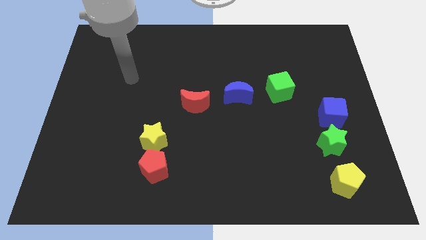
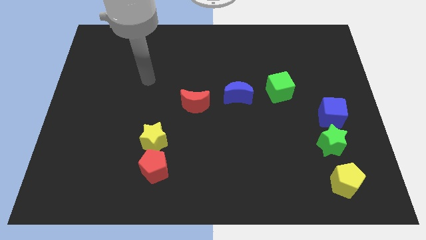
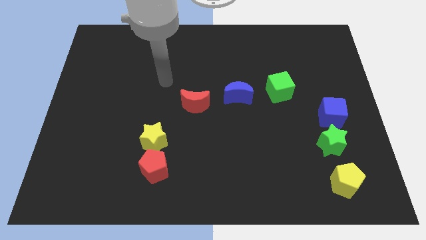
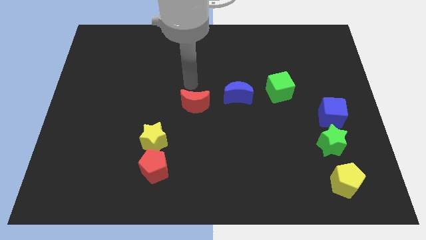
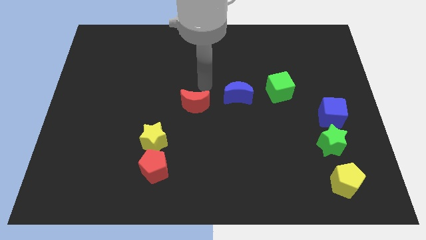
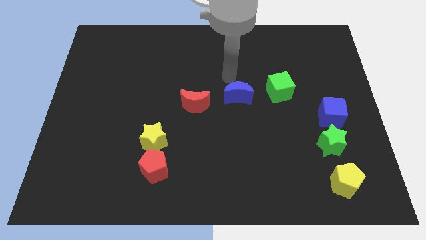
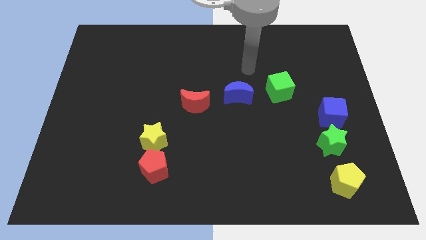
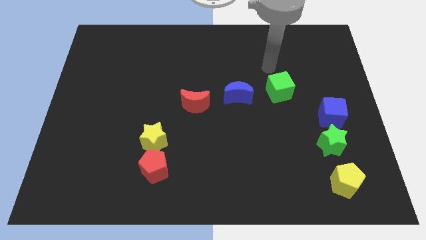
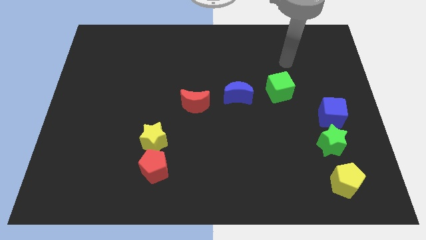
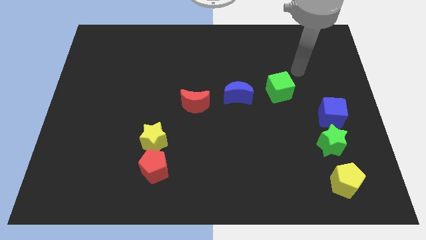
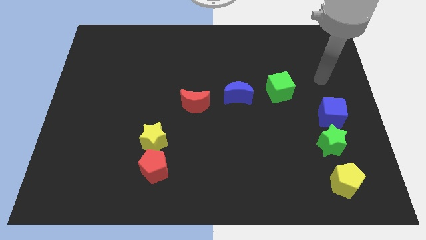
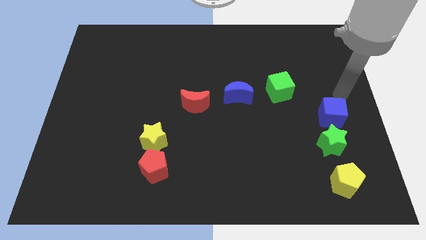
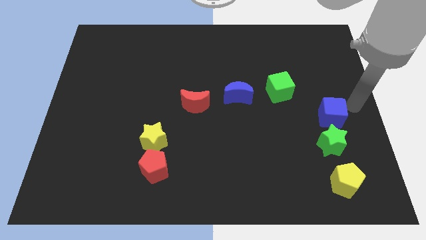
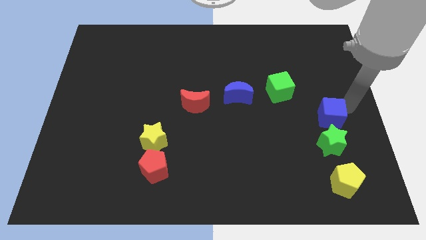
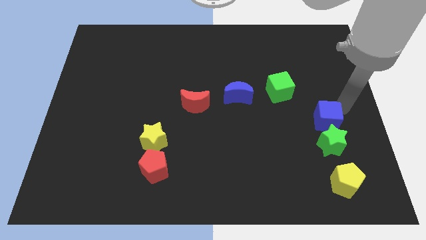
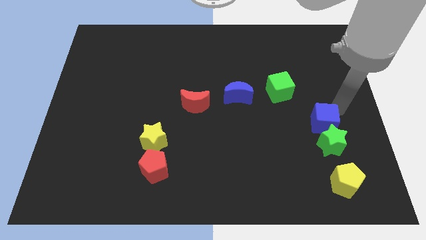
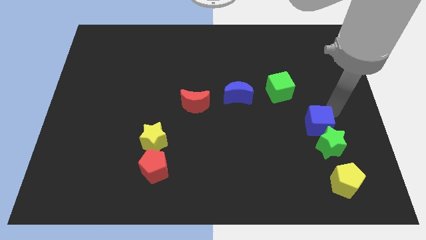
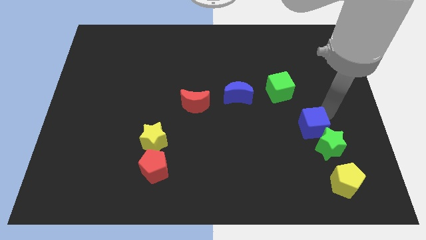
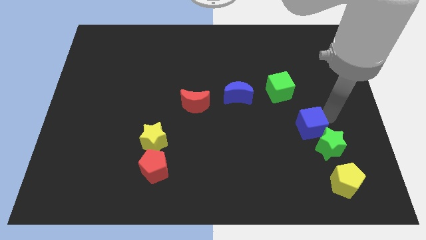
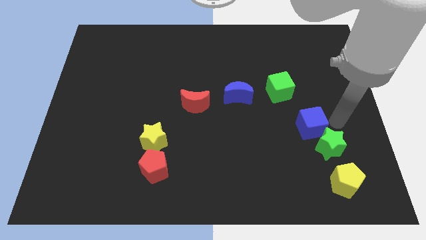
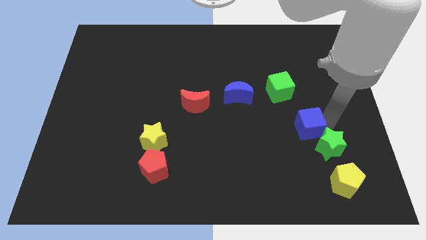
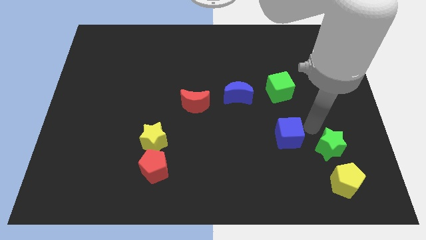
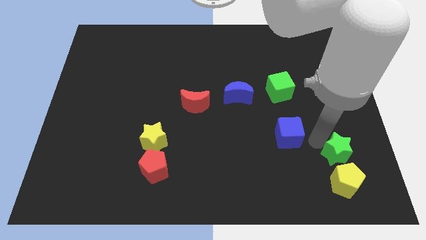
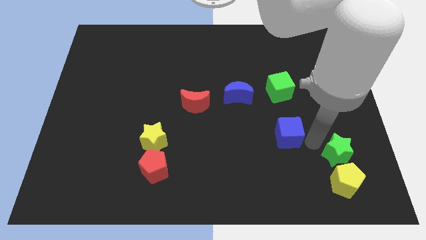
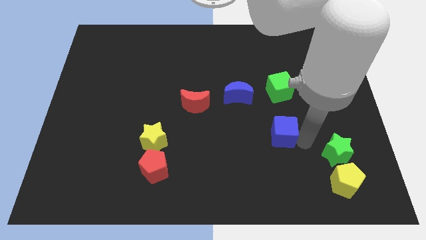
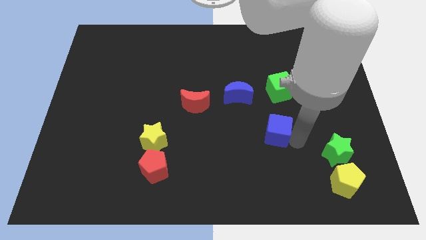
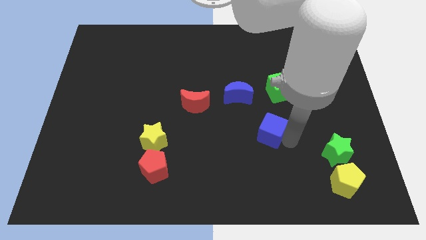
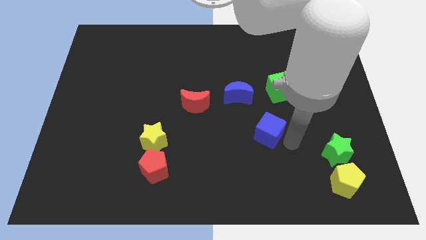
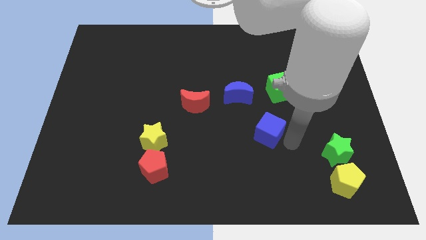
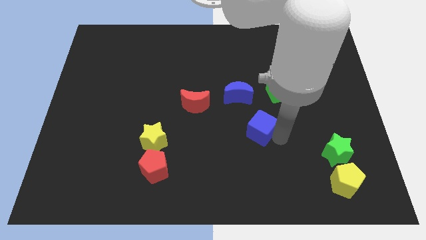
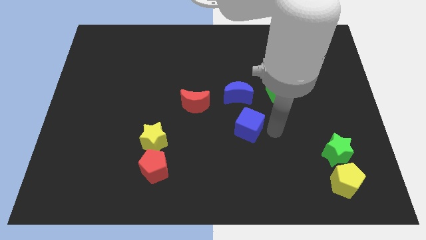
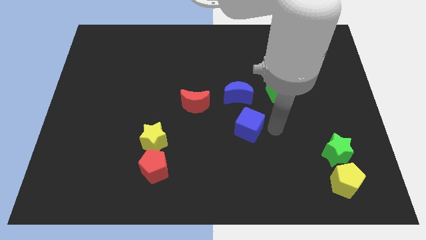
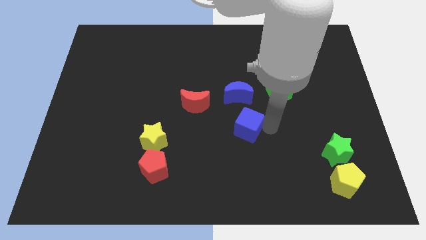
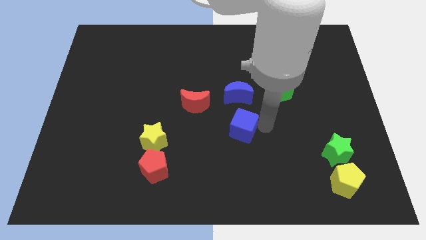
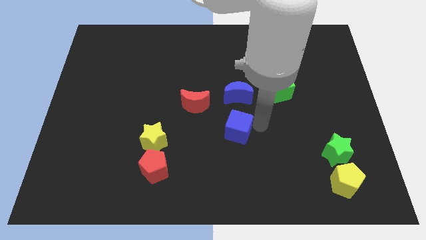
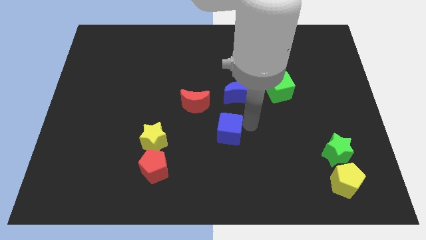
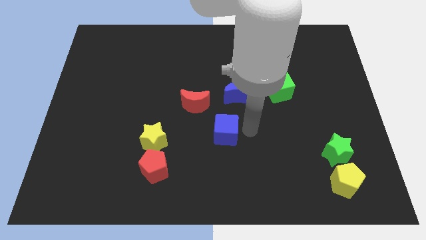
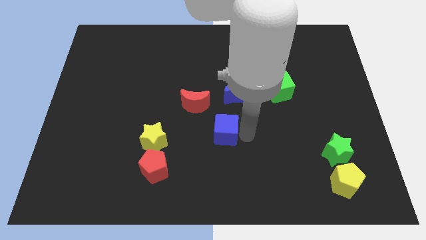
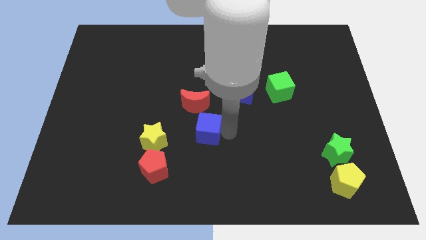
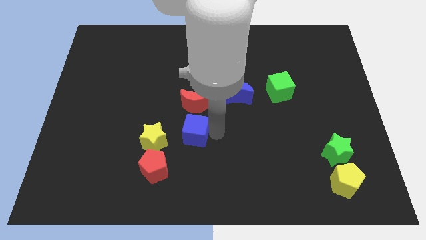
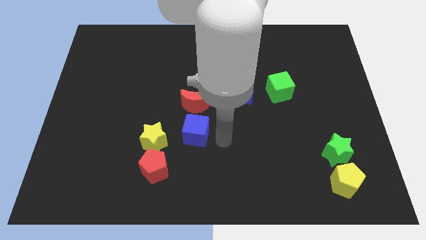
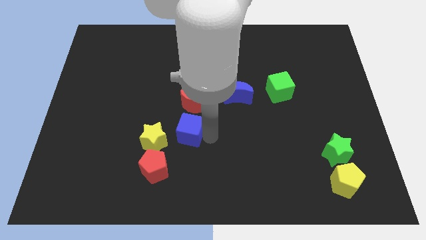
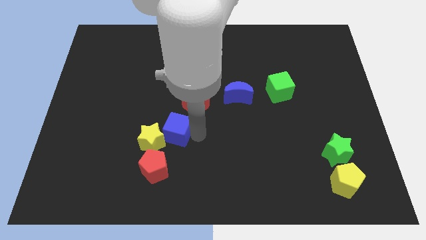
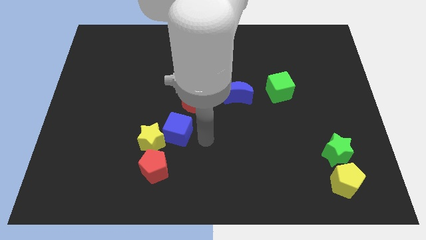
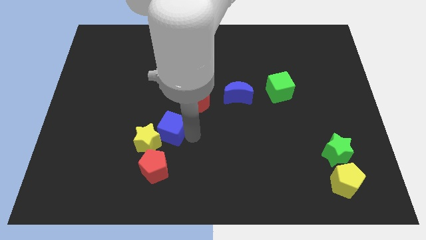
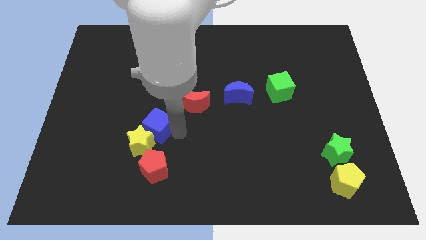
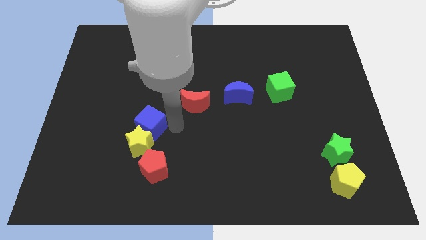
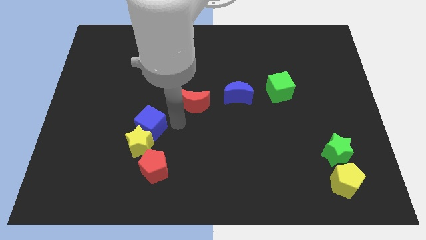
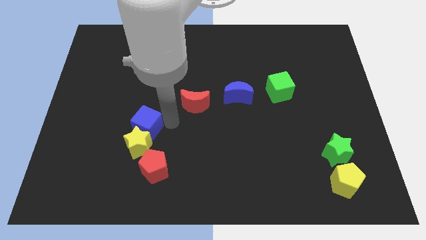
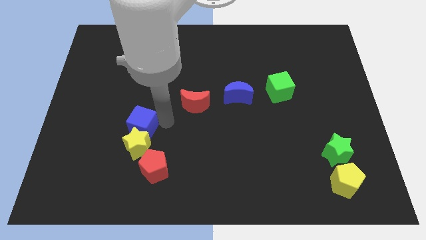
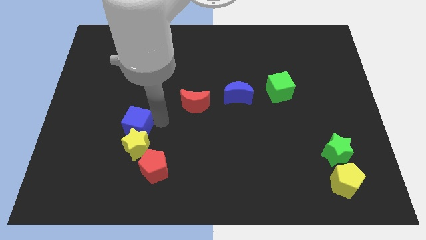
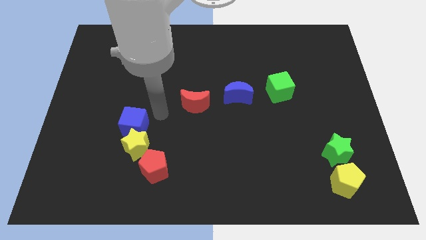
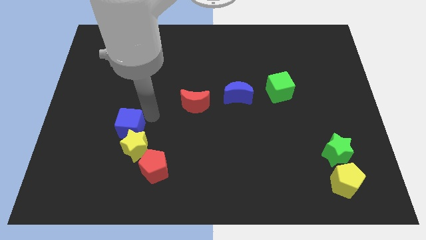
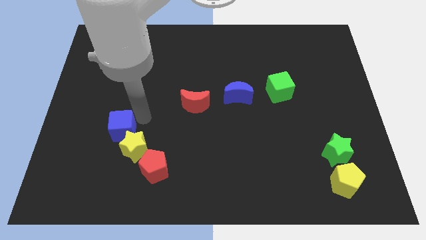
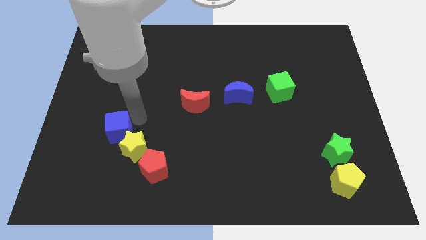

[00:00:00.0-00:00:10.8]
move the blue cube to the left side of the yellow star

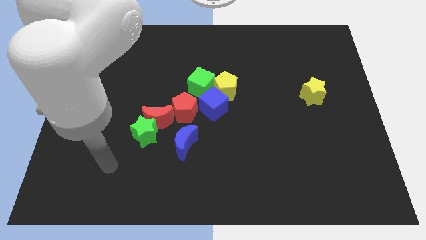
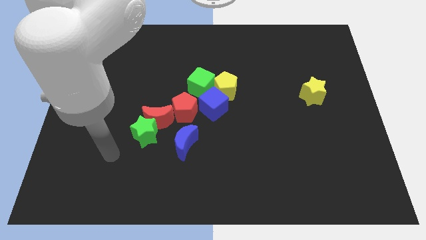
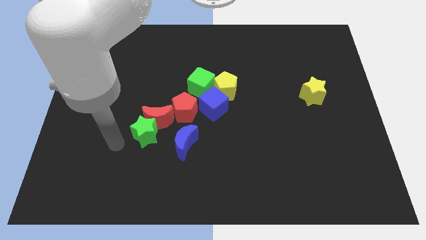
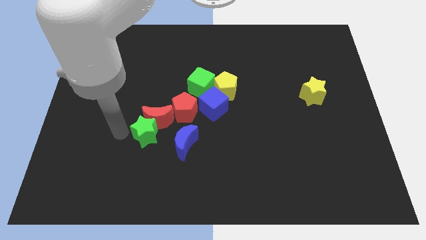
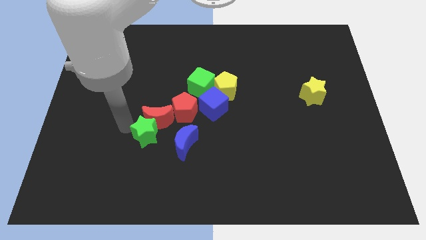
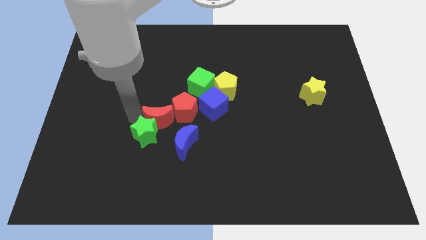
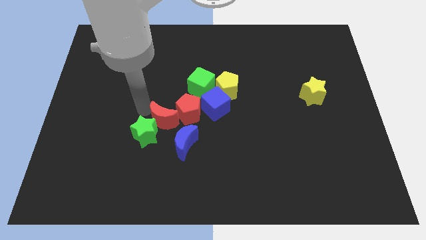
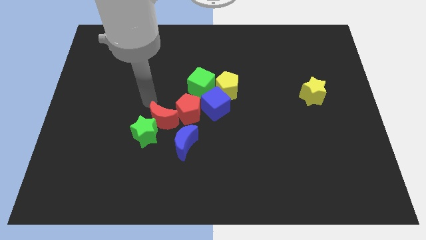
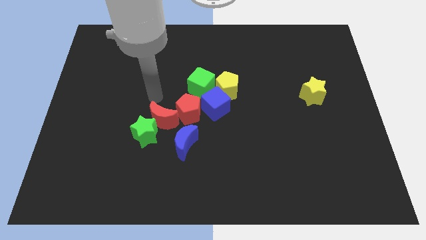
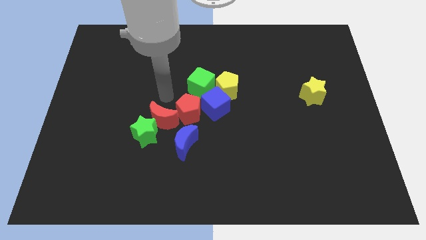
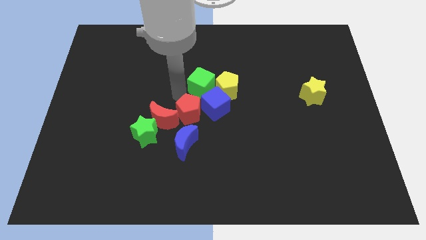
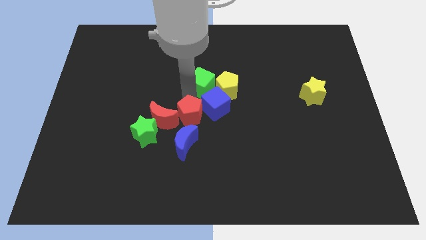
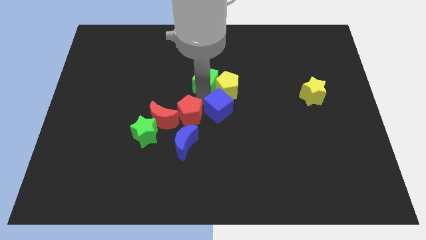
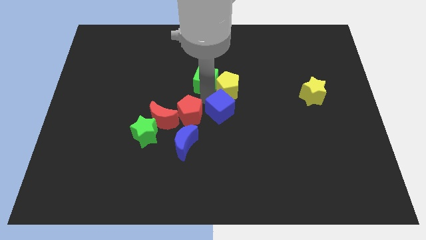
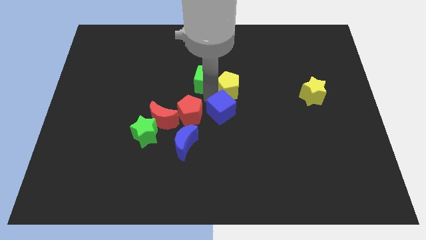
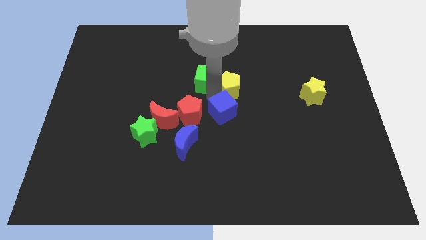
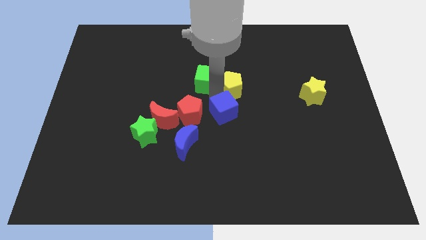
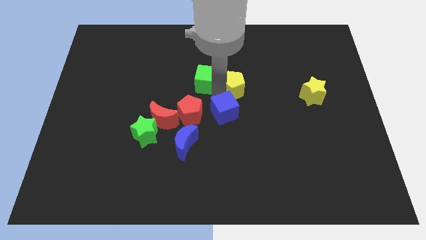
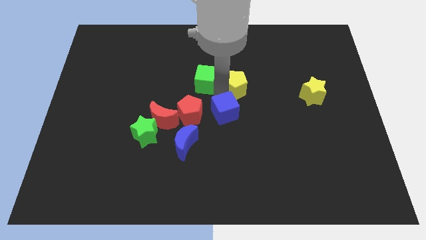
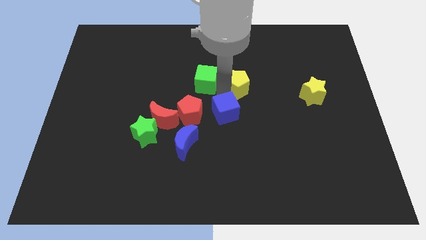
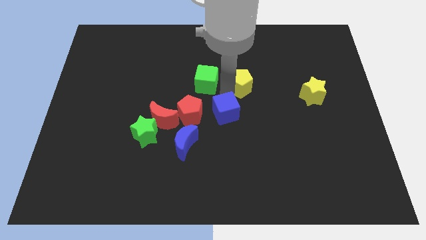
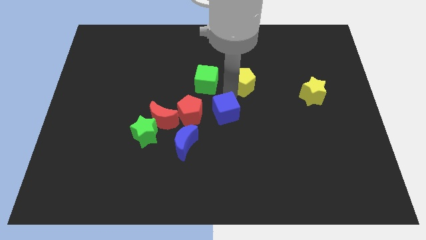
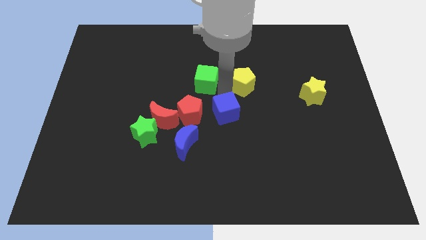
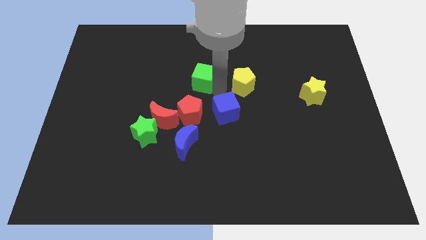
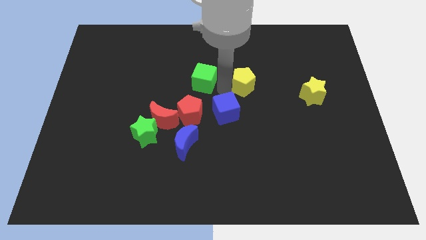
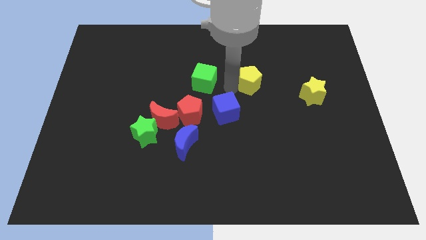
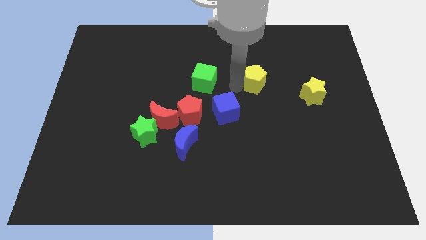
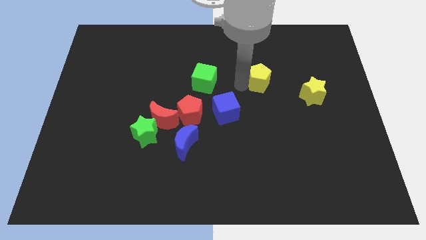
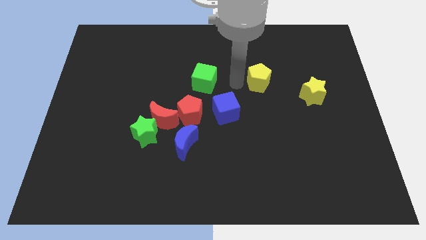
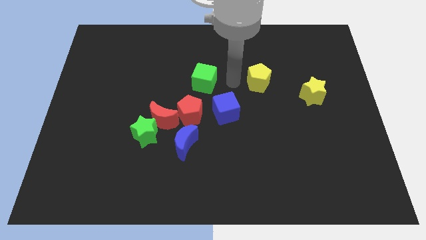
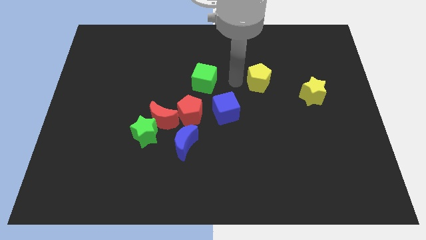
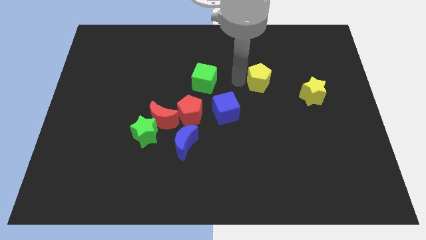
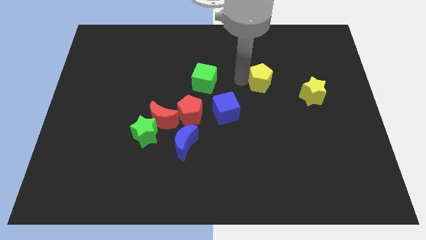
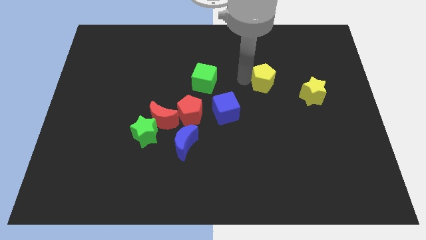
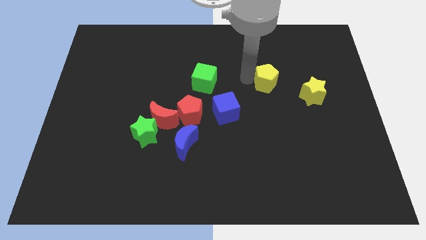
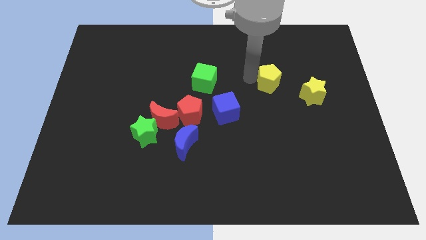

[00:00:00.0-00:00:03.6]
slide the yellow pentagon diagonally up and to the left of the yellow star
